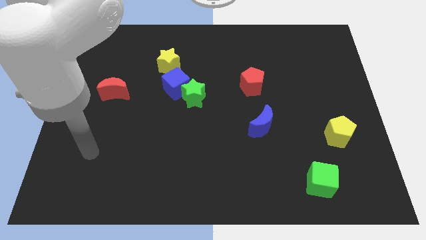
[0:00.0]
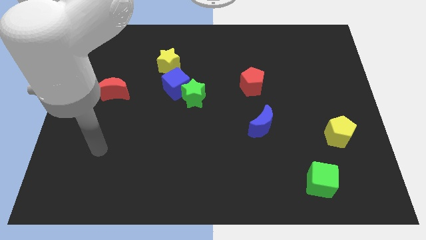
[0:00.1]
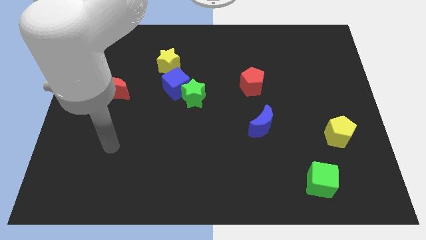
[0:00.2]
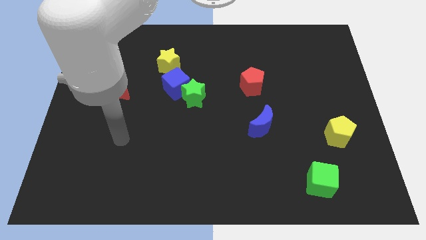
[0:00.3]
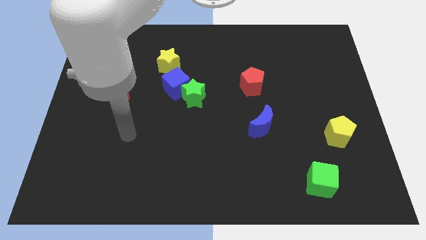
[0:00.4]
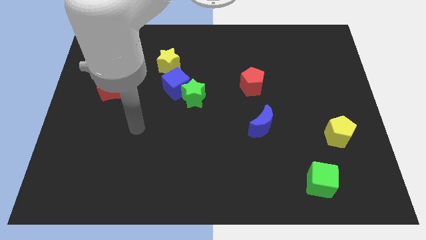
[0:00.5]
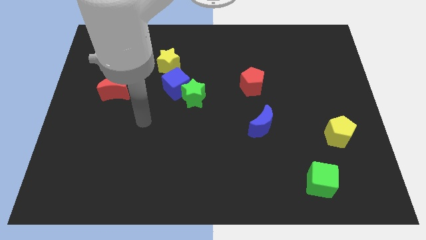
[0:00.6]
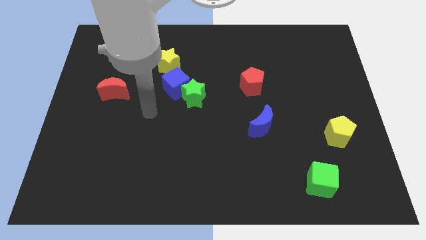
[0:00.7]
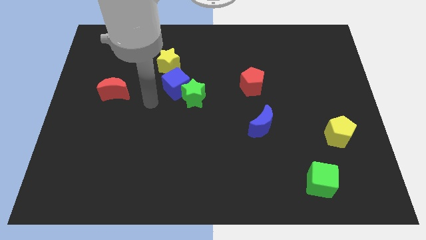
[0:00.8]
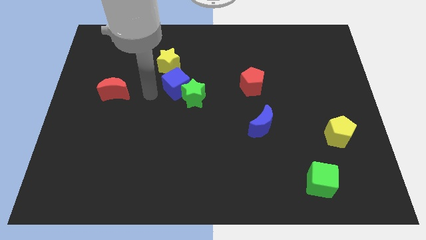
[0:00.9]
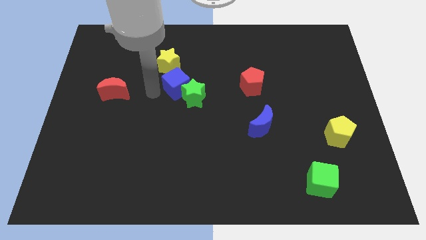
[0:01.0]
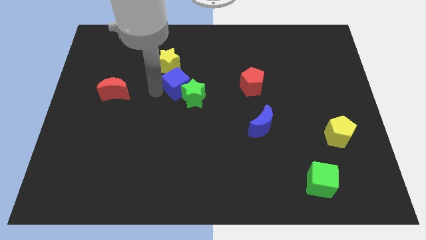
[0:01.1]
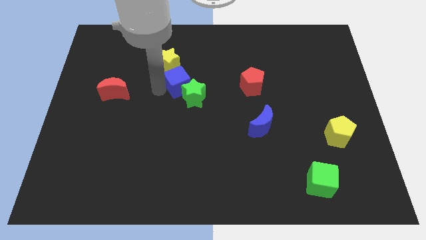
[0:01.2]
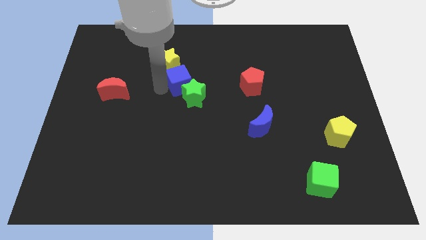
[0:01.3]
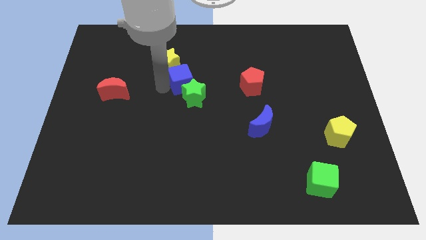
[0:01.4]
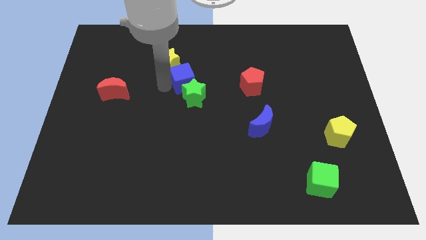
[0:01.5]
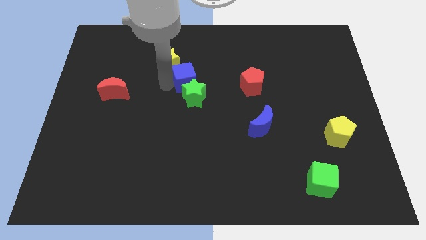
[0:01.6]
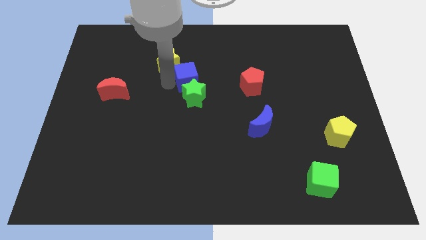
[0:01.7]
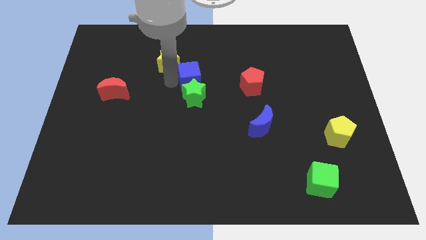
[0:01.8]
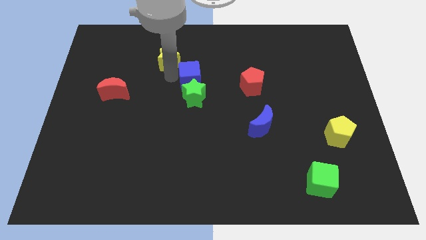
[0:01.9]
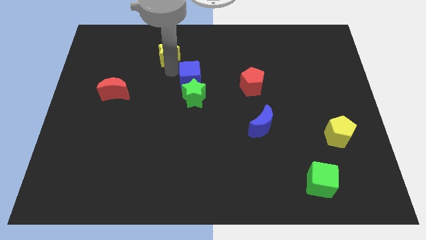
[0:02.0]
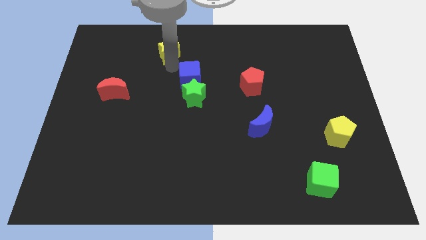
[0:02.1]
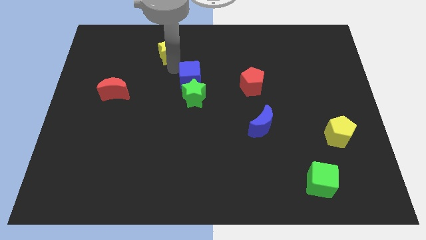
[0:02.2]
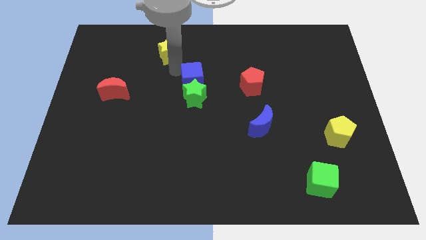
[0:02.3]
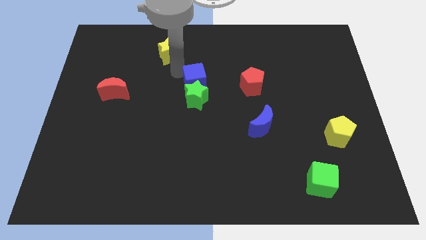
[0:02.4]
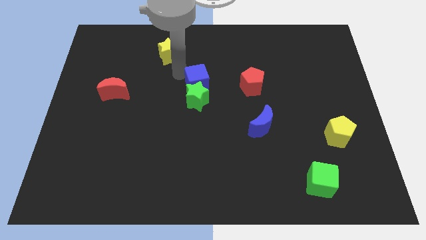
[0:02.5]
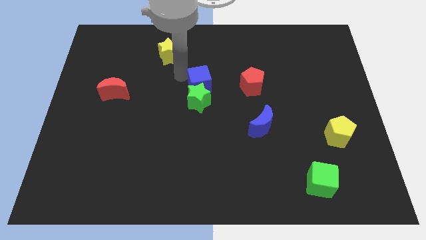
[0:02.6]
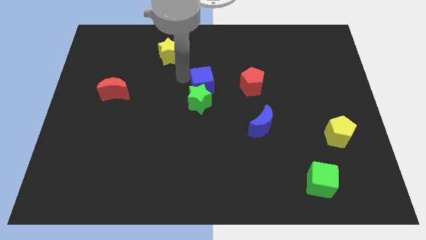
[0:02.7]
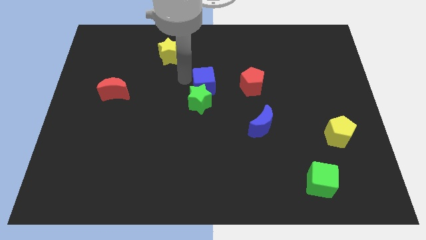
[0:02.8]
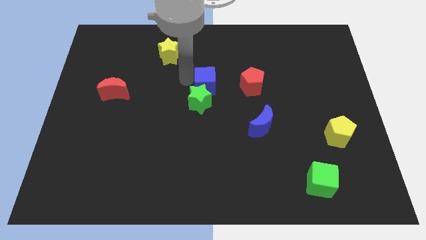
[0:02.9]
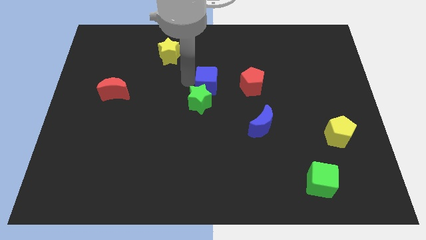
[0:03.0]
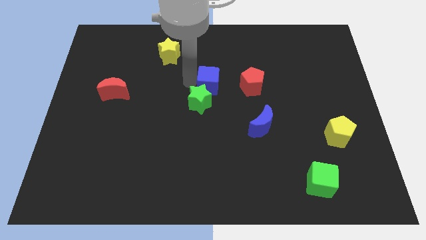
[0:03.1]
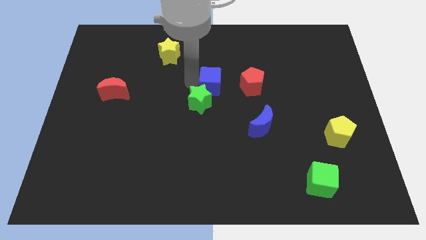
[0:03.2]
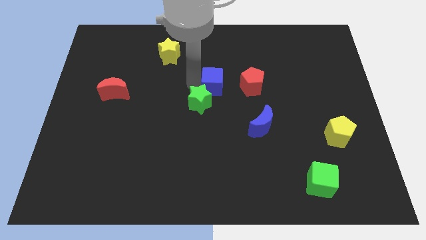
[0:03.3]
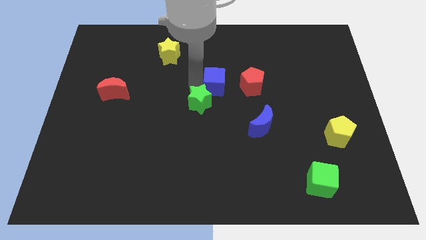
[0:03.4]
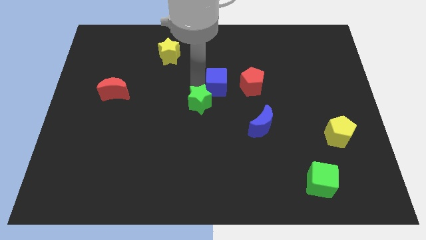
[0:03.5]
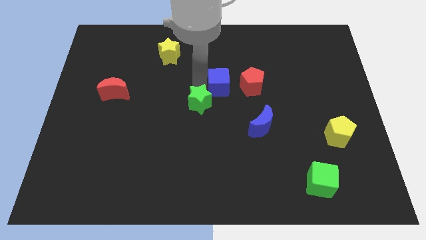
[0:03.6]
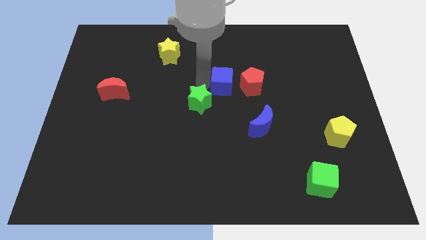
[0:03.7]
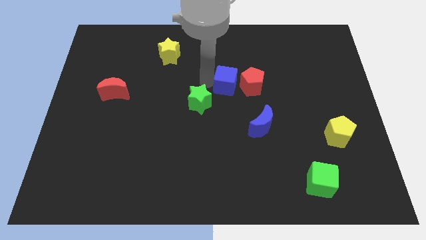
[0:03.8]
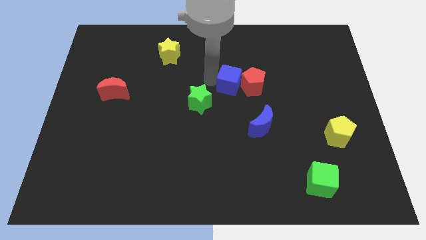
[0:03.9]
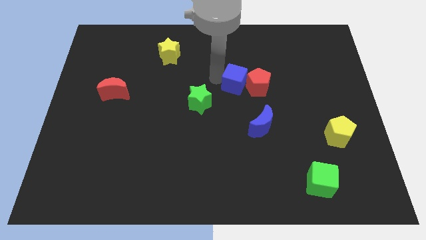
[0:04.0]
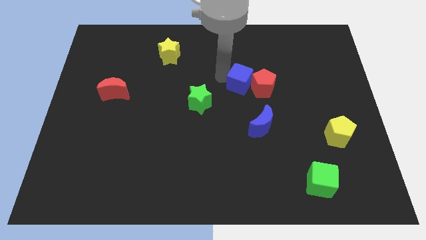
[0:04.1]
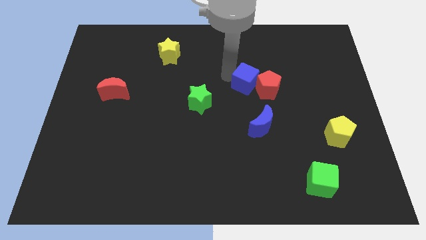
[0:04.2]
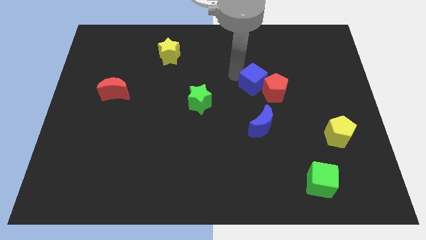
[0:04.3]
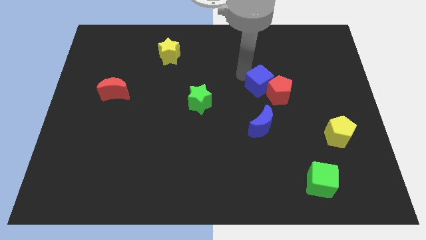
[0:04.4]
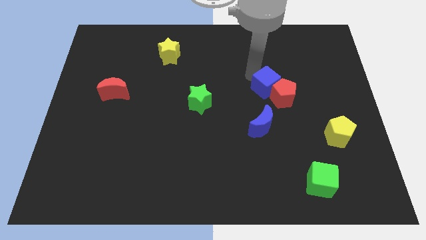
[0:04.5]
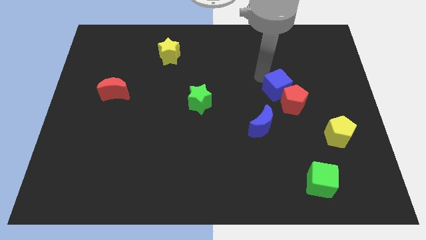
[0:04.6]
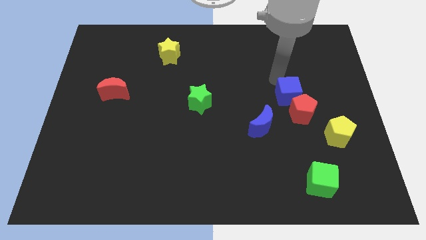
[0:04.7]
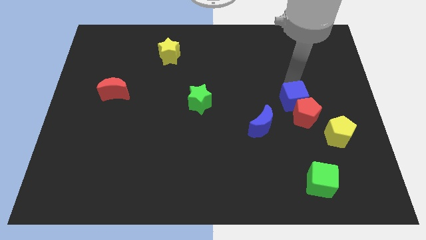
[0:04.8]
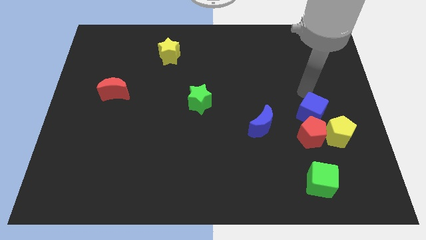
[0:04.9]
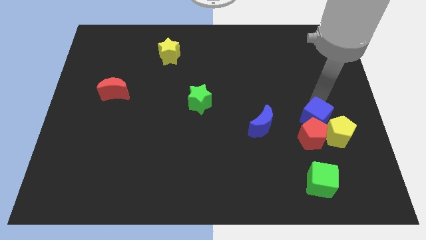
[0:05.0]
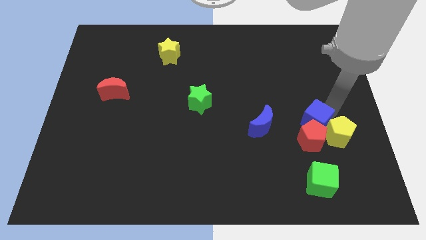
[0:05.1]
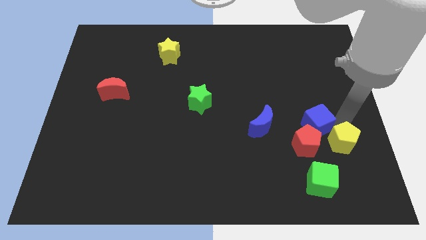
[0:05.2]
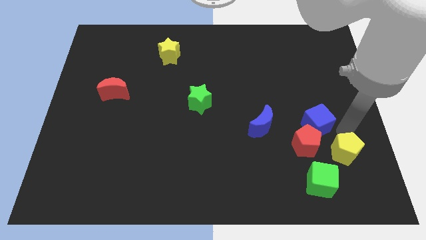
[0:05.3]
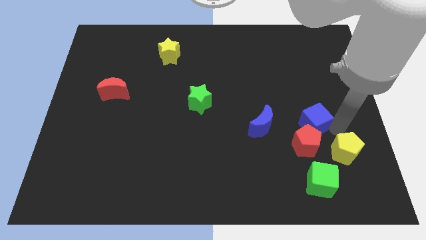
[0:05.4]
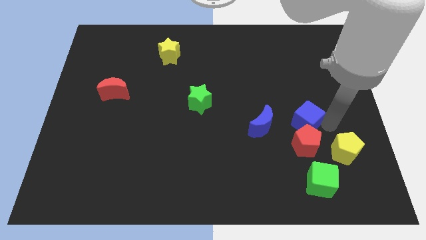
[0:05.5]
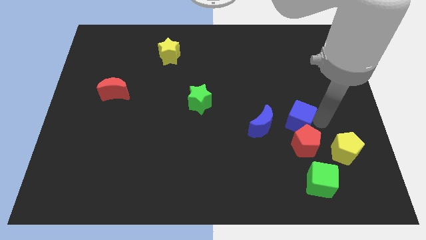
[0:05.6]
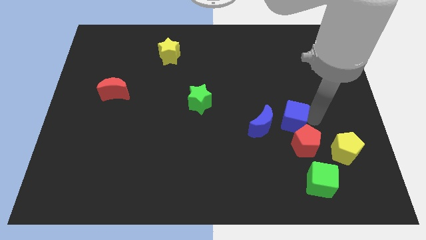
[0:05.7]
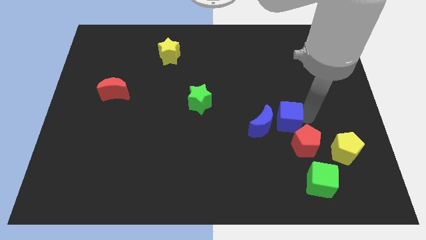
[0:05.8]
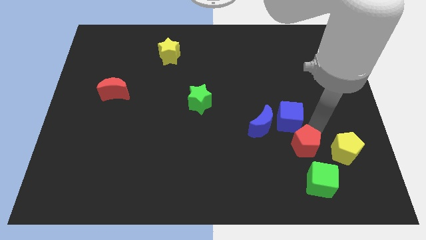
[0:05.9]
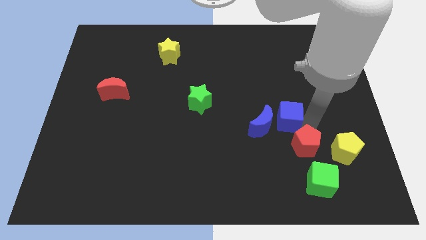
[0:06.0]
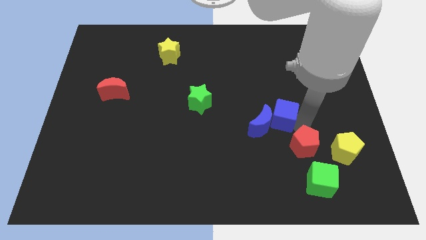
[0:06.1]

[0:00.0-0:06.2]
move the blue cube to the blue moon
